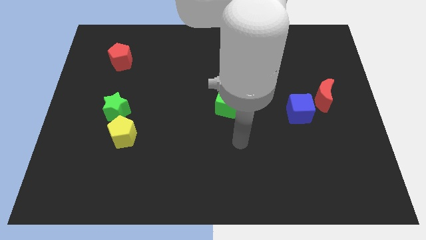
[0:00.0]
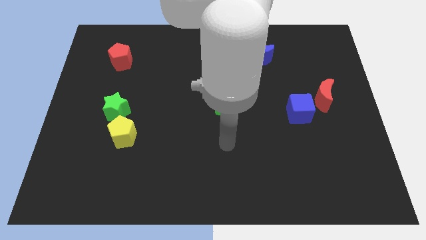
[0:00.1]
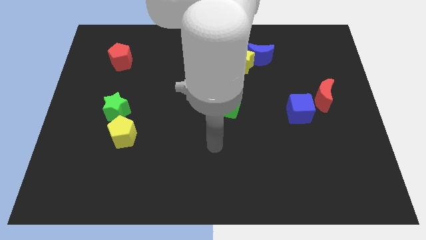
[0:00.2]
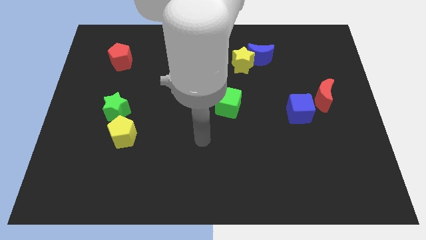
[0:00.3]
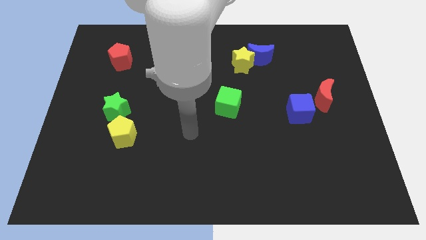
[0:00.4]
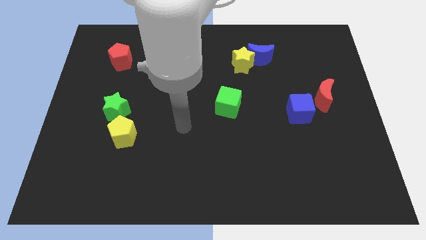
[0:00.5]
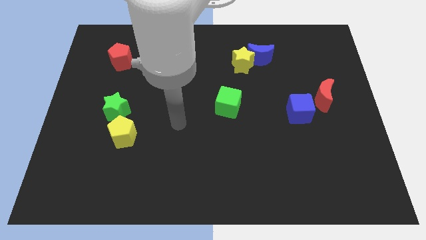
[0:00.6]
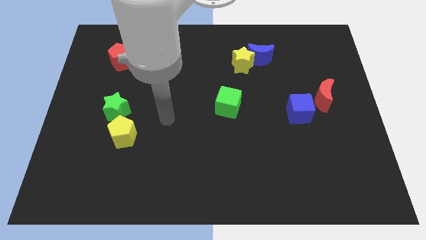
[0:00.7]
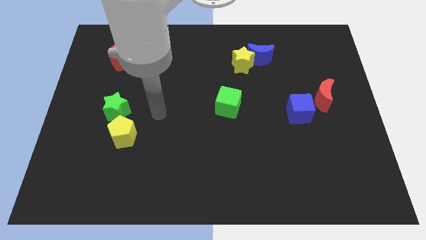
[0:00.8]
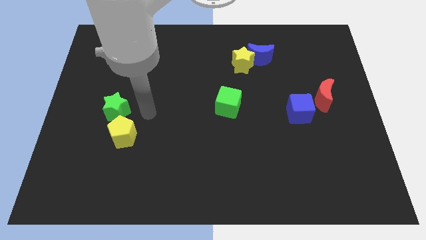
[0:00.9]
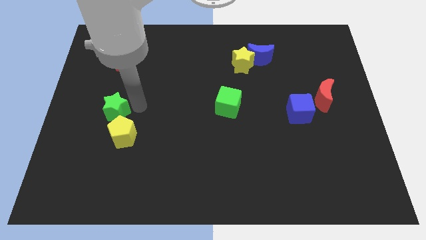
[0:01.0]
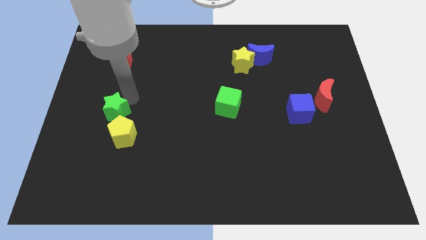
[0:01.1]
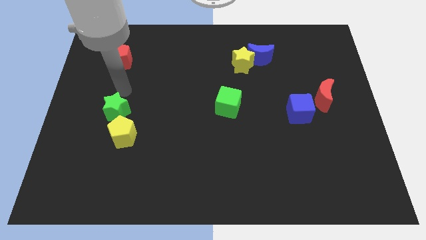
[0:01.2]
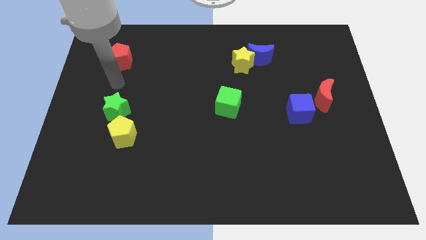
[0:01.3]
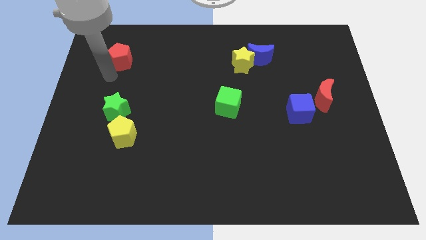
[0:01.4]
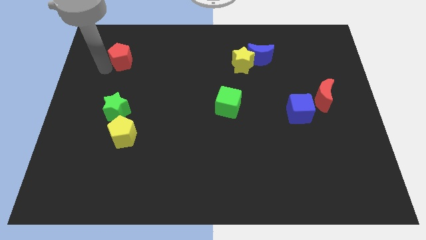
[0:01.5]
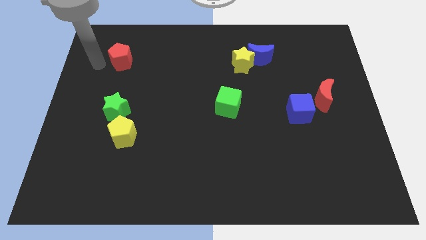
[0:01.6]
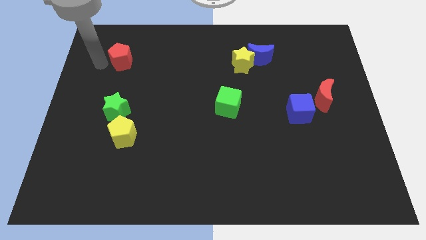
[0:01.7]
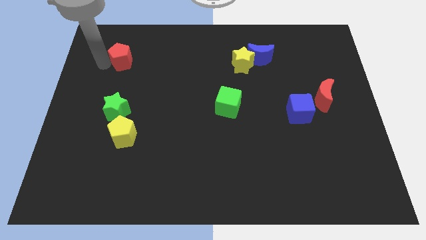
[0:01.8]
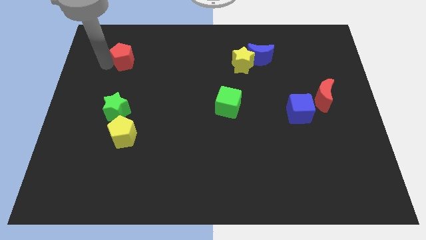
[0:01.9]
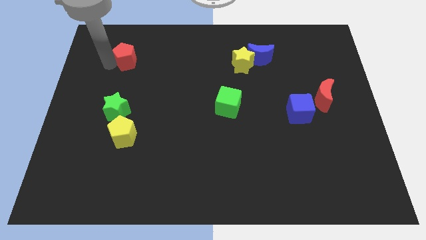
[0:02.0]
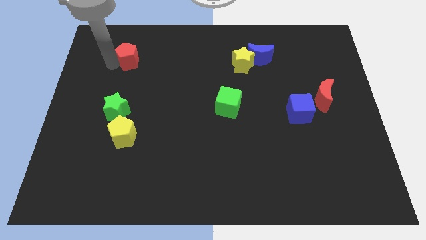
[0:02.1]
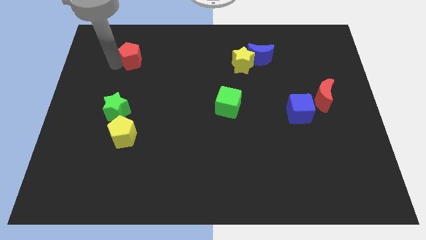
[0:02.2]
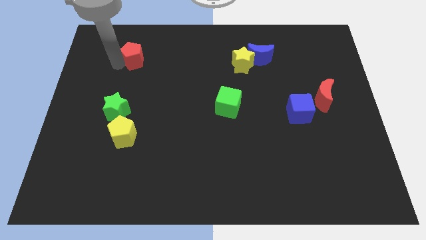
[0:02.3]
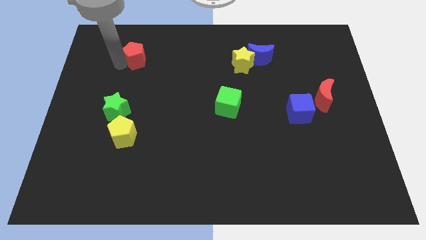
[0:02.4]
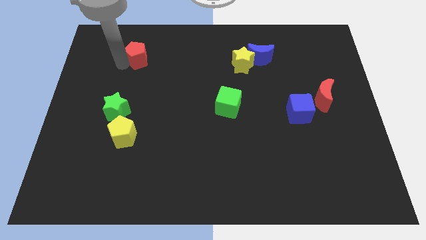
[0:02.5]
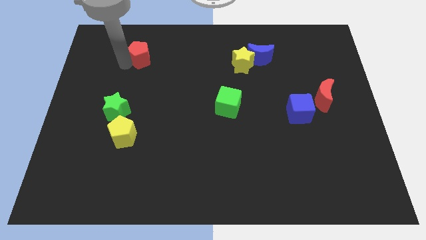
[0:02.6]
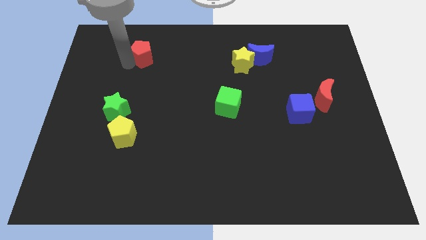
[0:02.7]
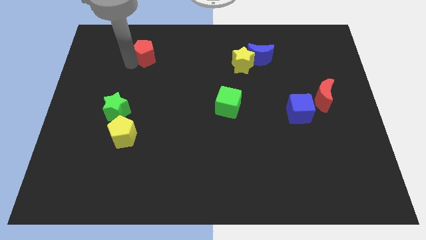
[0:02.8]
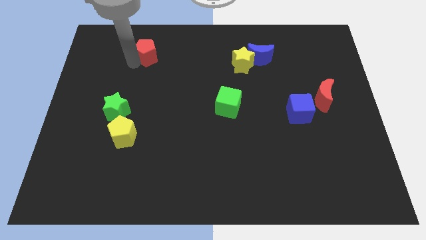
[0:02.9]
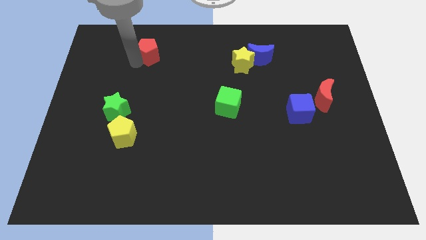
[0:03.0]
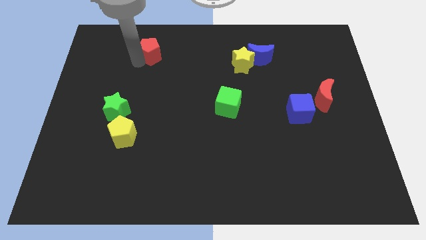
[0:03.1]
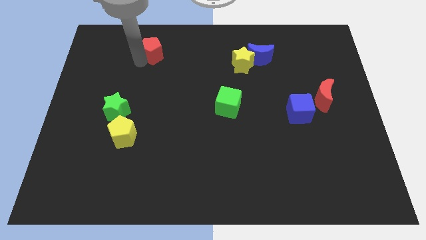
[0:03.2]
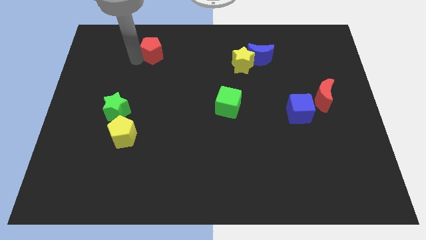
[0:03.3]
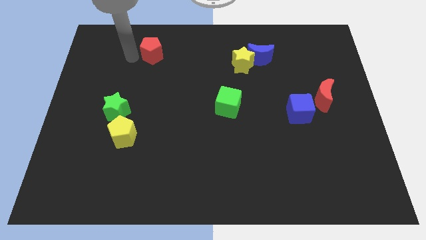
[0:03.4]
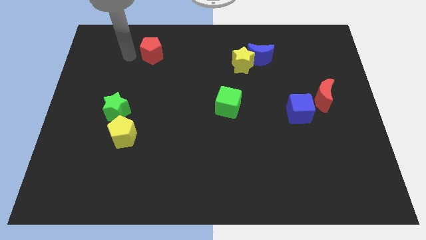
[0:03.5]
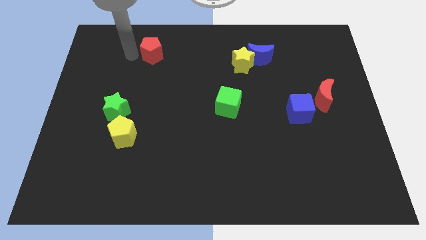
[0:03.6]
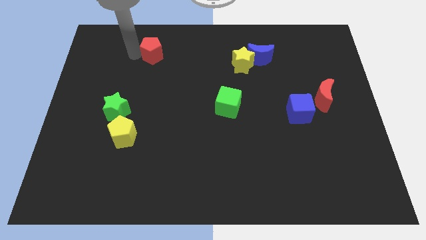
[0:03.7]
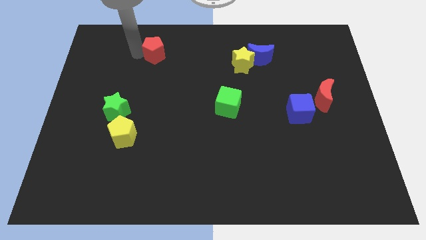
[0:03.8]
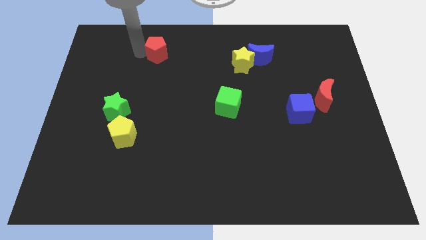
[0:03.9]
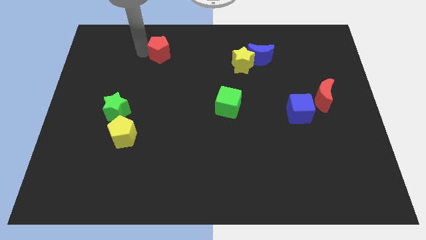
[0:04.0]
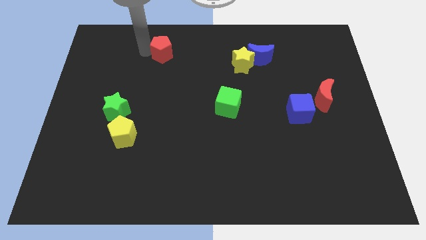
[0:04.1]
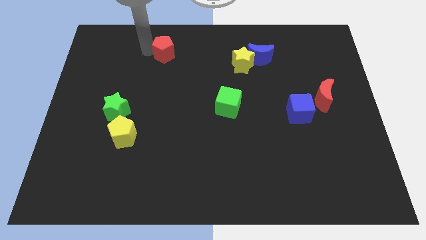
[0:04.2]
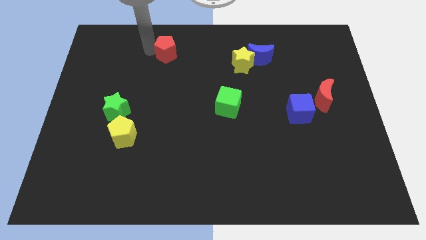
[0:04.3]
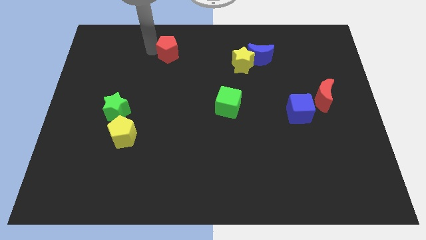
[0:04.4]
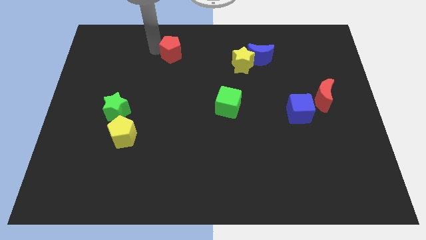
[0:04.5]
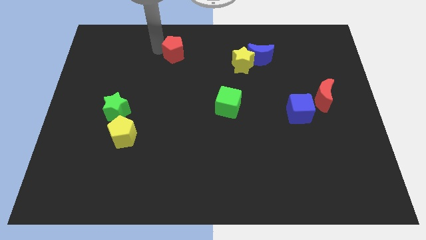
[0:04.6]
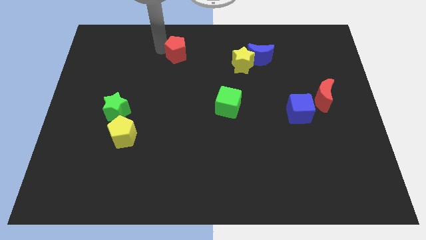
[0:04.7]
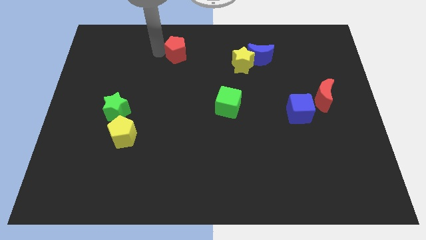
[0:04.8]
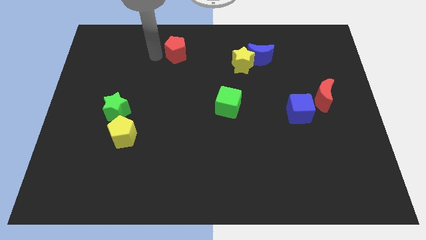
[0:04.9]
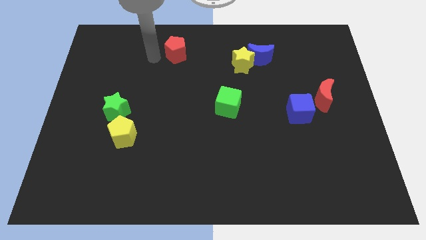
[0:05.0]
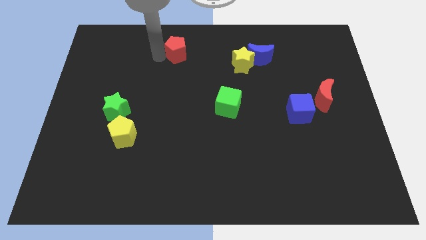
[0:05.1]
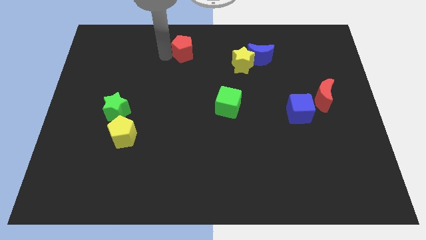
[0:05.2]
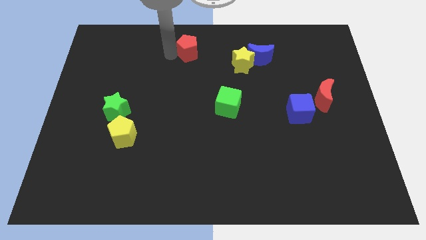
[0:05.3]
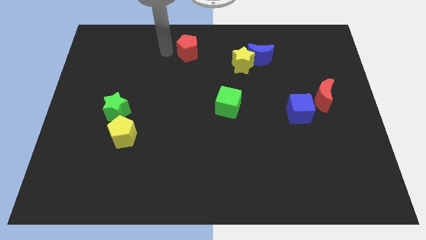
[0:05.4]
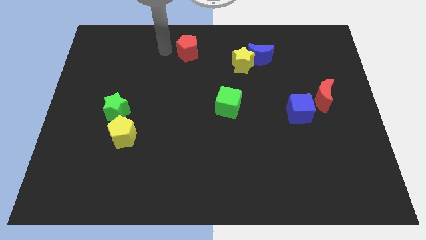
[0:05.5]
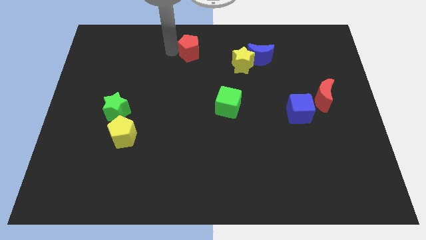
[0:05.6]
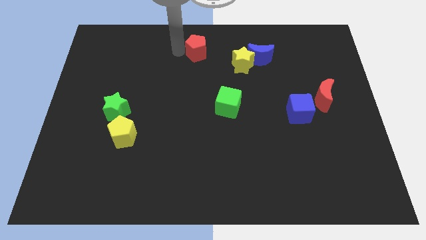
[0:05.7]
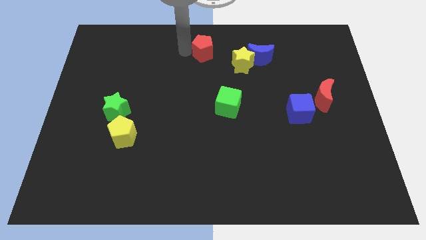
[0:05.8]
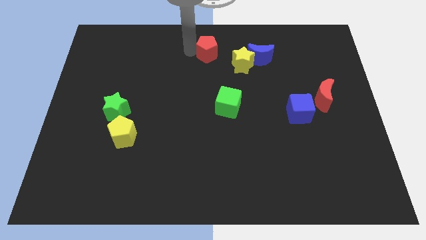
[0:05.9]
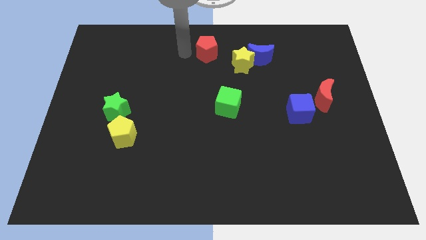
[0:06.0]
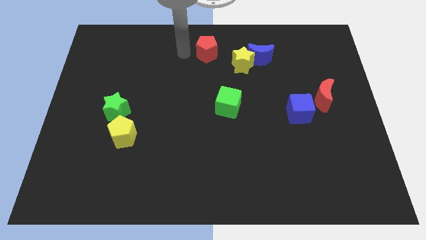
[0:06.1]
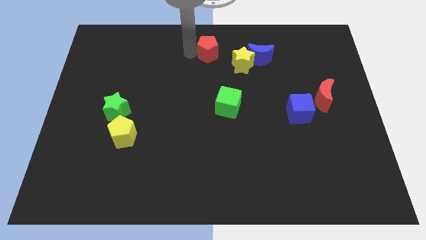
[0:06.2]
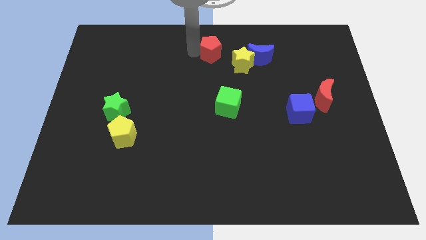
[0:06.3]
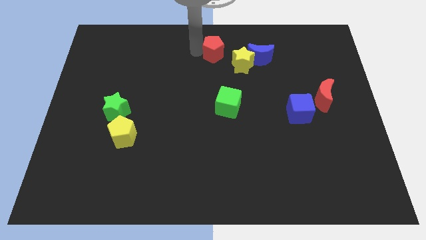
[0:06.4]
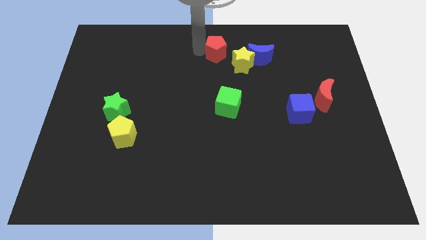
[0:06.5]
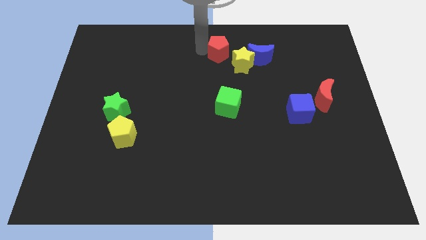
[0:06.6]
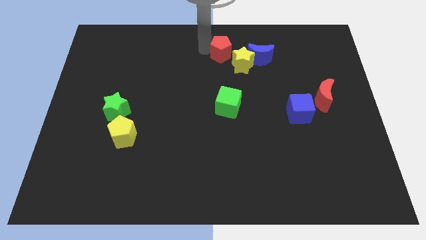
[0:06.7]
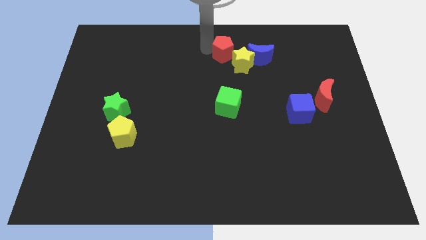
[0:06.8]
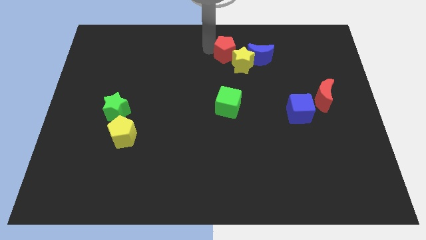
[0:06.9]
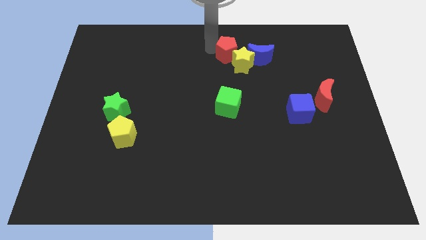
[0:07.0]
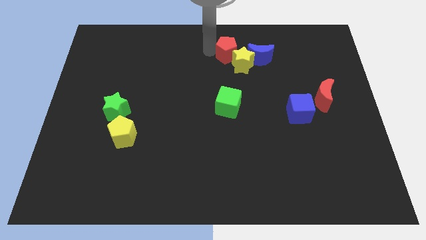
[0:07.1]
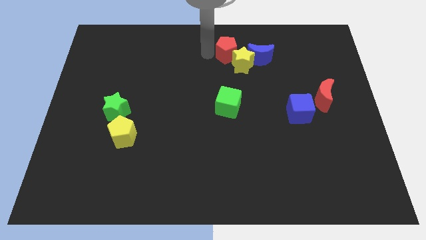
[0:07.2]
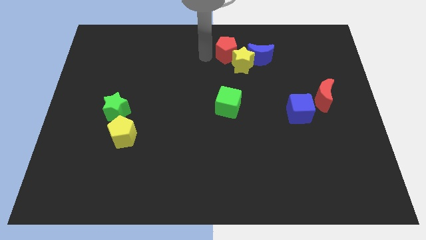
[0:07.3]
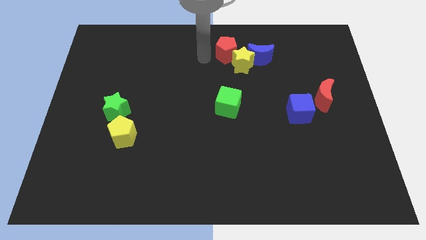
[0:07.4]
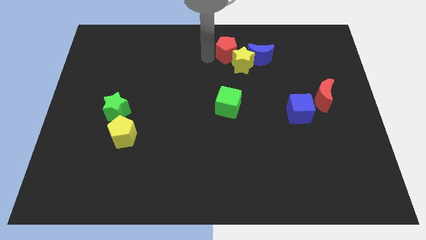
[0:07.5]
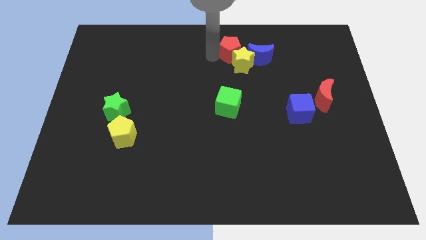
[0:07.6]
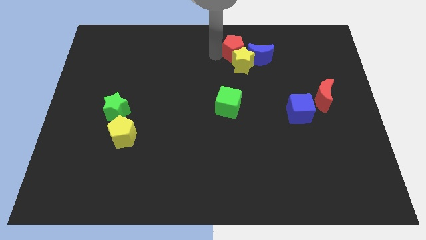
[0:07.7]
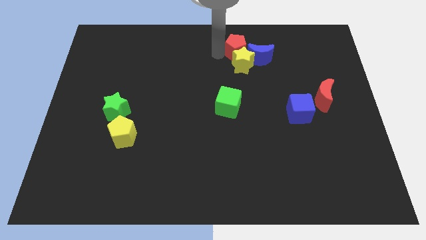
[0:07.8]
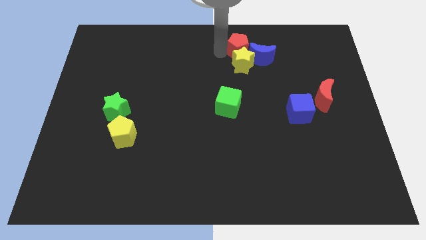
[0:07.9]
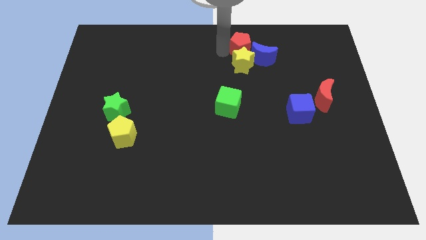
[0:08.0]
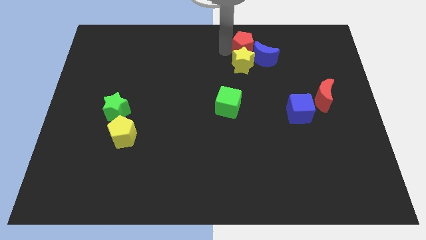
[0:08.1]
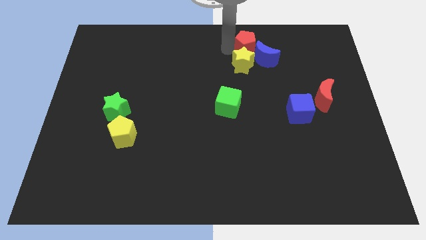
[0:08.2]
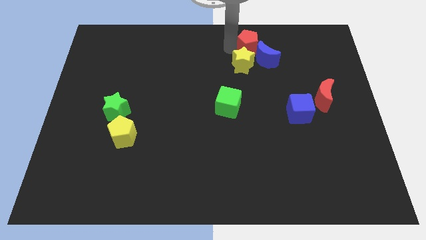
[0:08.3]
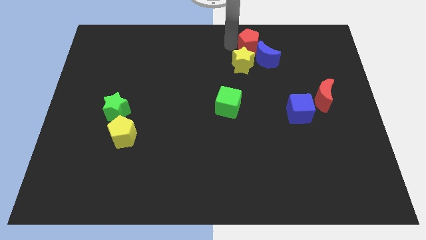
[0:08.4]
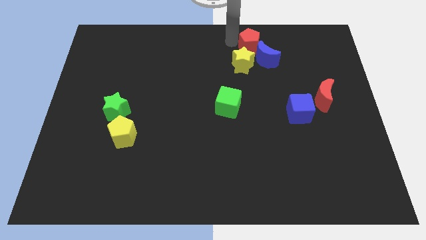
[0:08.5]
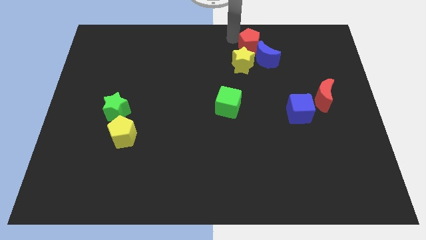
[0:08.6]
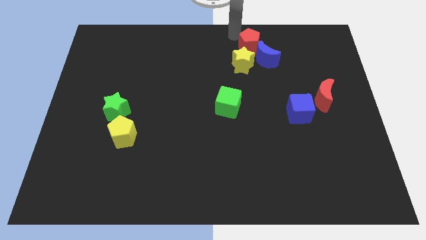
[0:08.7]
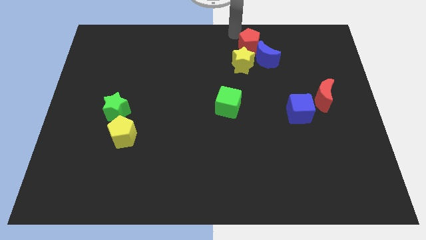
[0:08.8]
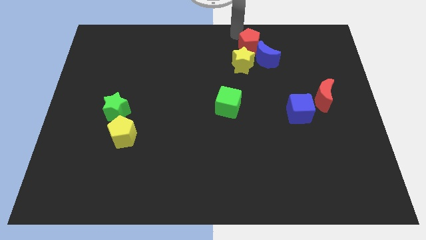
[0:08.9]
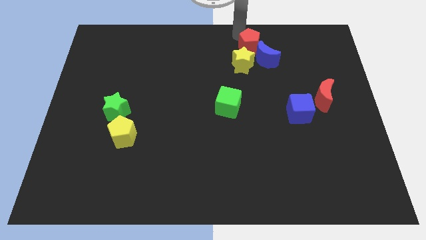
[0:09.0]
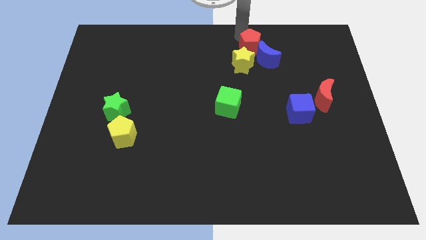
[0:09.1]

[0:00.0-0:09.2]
move the red pentagon towards the blue moon
